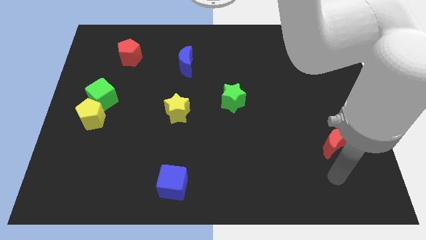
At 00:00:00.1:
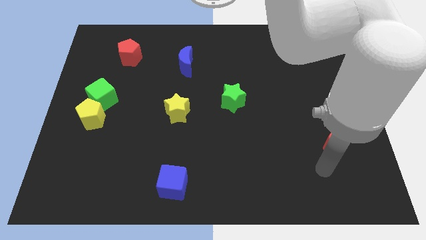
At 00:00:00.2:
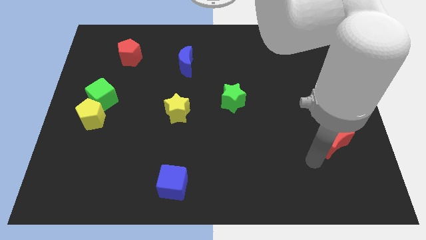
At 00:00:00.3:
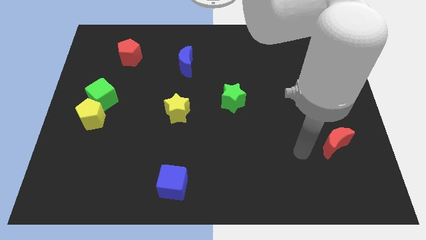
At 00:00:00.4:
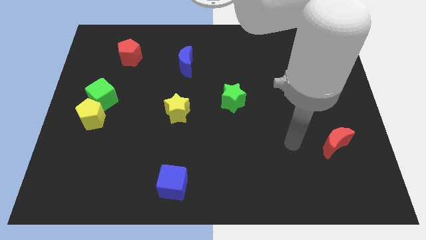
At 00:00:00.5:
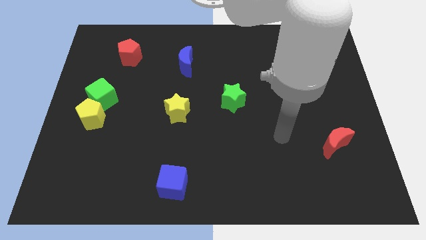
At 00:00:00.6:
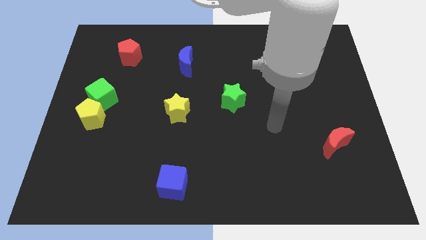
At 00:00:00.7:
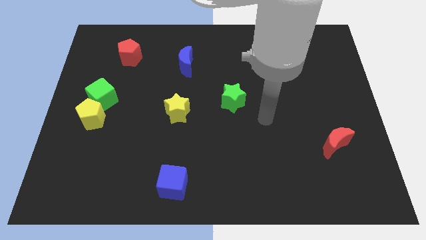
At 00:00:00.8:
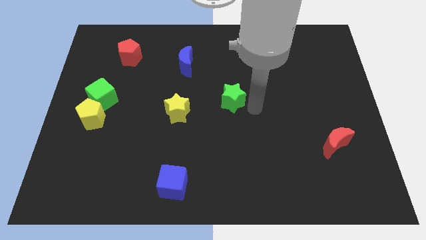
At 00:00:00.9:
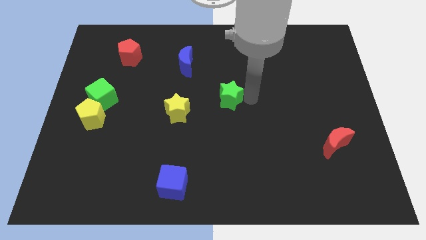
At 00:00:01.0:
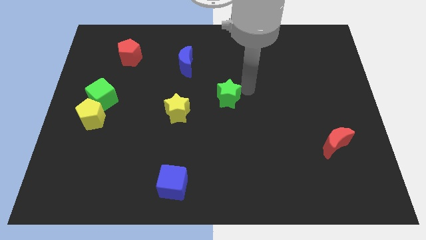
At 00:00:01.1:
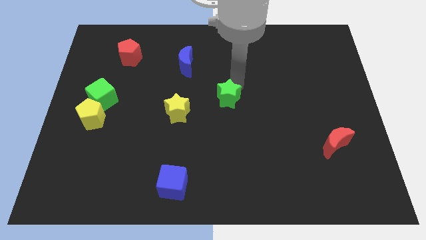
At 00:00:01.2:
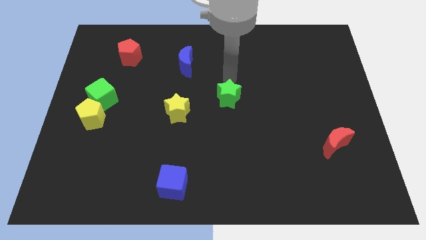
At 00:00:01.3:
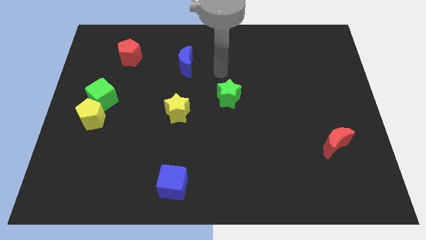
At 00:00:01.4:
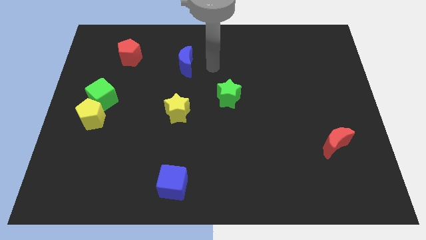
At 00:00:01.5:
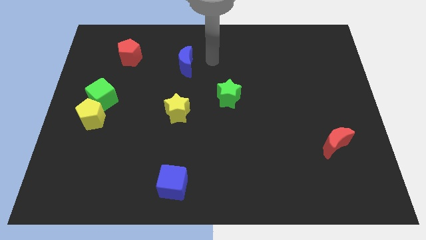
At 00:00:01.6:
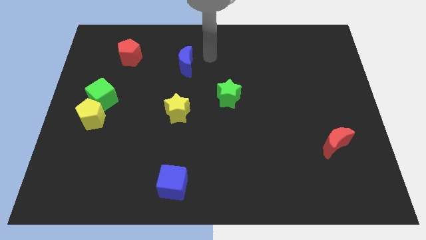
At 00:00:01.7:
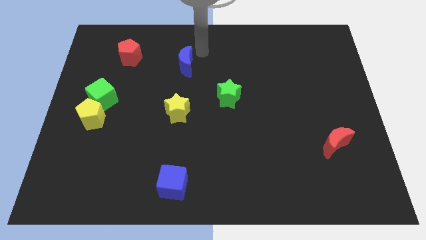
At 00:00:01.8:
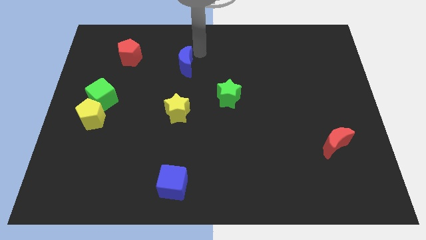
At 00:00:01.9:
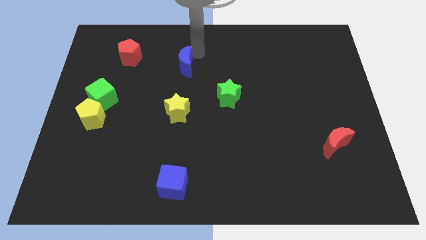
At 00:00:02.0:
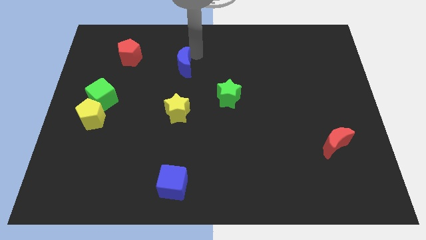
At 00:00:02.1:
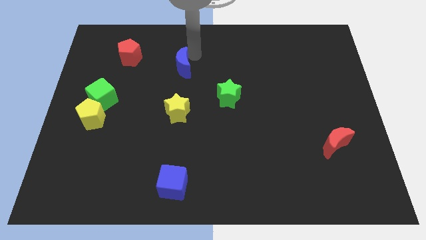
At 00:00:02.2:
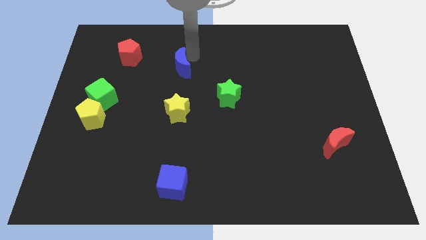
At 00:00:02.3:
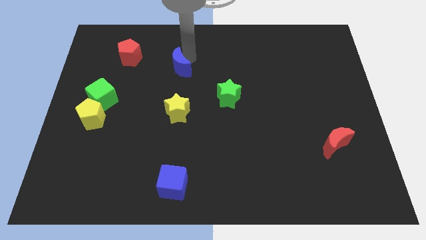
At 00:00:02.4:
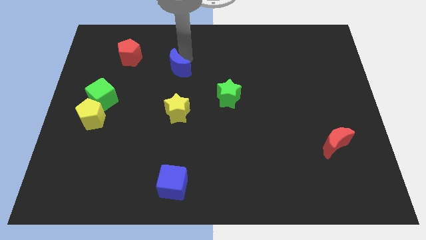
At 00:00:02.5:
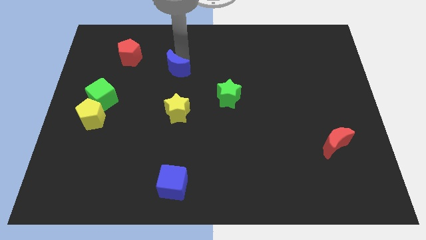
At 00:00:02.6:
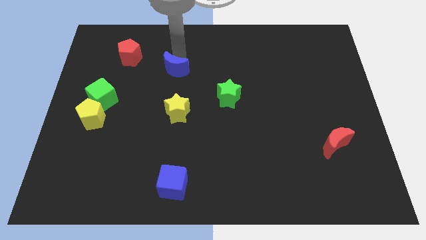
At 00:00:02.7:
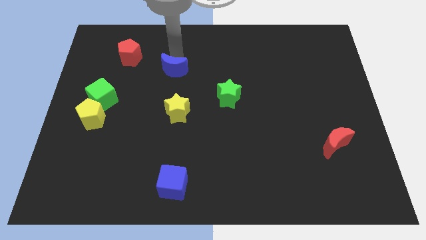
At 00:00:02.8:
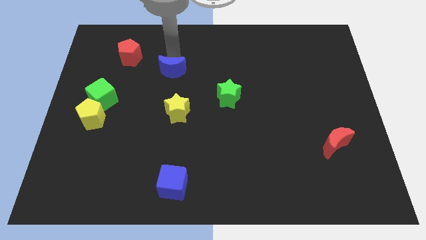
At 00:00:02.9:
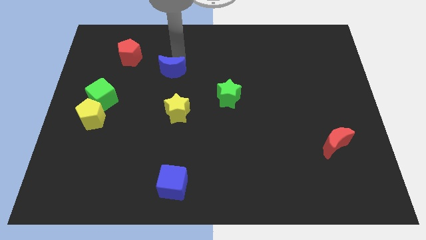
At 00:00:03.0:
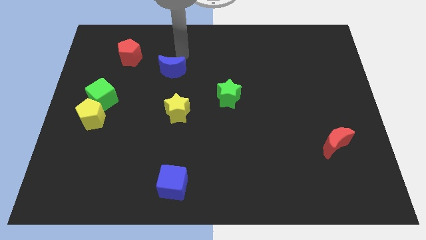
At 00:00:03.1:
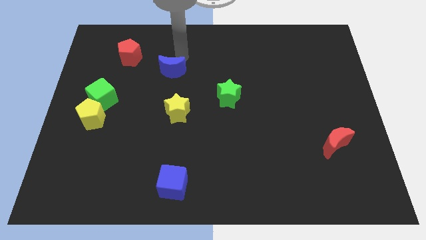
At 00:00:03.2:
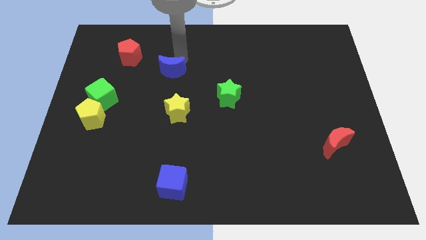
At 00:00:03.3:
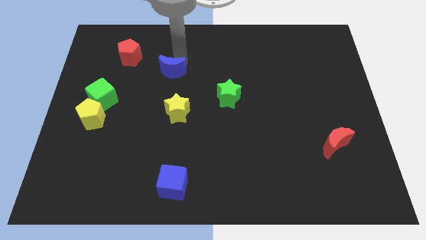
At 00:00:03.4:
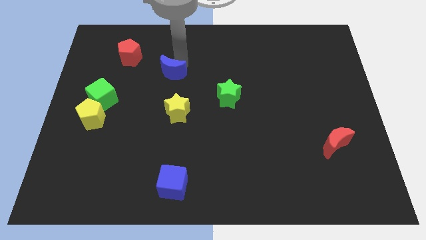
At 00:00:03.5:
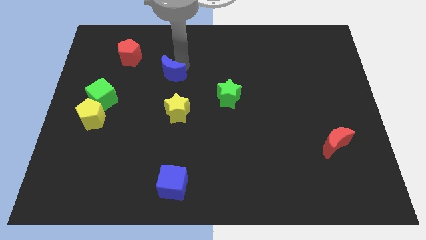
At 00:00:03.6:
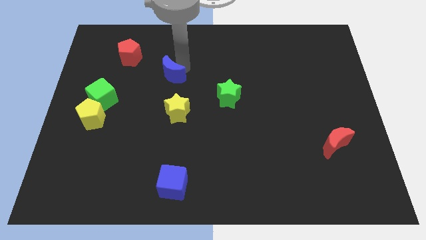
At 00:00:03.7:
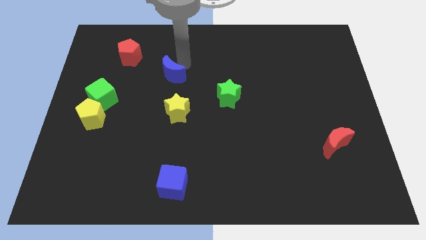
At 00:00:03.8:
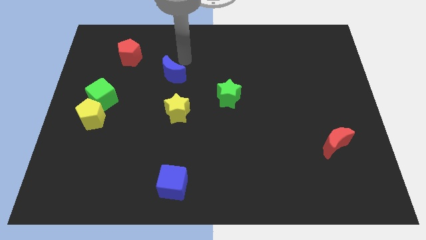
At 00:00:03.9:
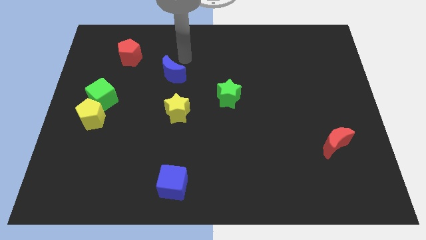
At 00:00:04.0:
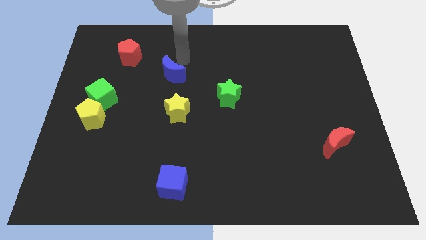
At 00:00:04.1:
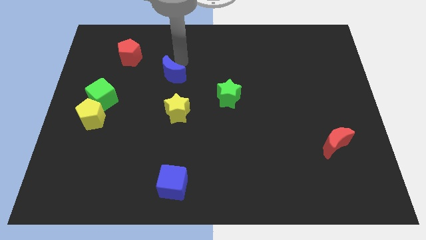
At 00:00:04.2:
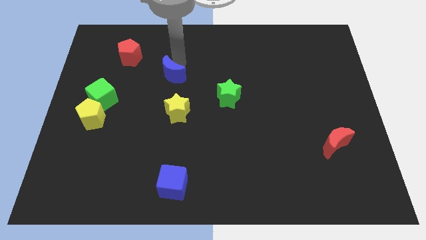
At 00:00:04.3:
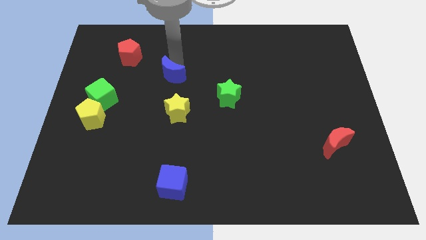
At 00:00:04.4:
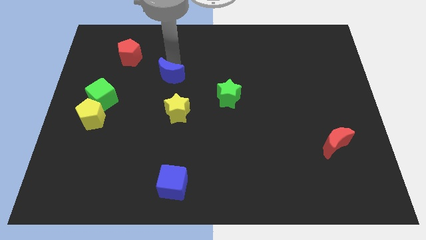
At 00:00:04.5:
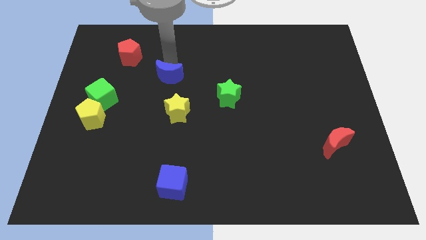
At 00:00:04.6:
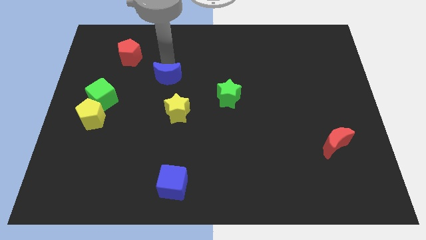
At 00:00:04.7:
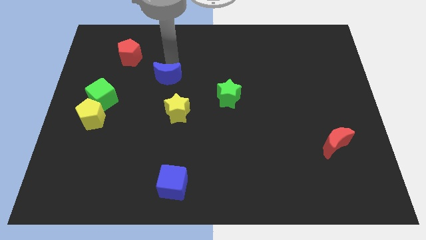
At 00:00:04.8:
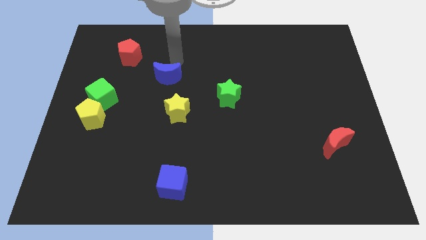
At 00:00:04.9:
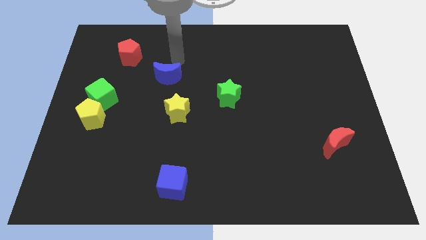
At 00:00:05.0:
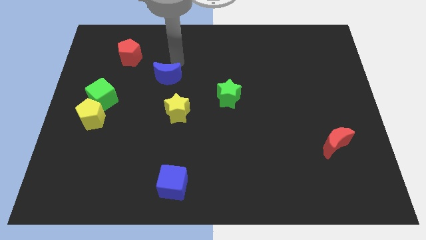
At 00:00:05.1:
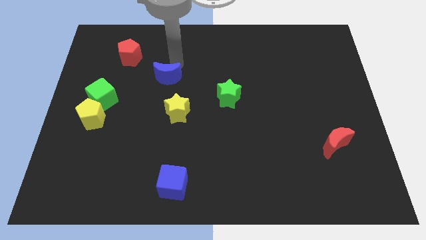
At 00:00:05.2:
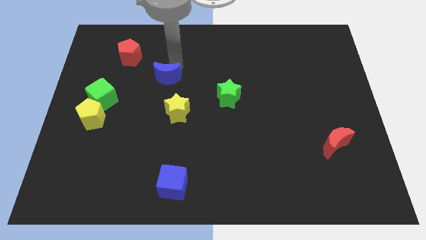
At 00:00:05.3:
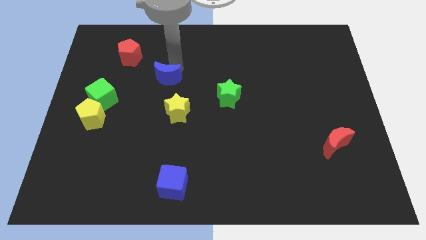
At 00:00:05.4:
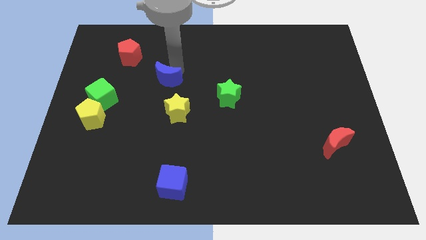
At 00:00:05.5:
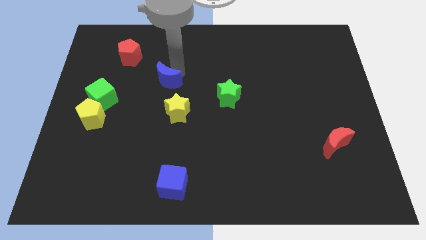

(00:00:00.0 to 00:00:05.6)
put the blue moon to the top left side of the yellow star

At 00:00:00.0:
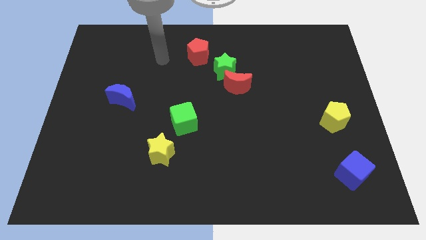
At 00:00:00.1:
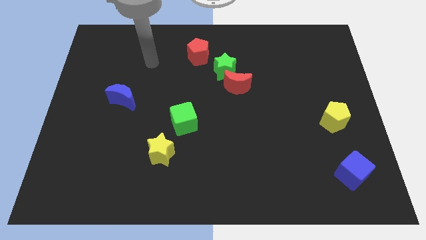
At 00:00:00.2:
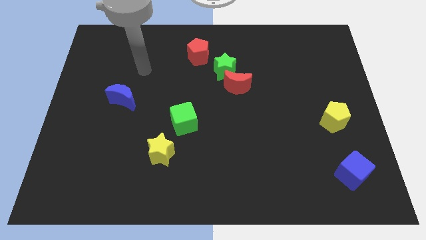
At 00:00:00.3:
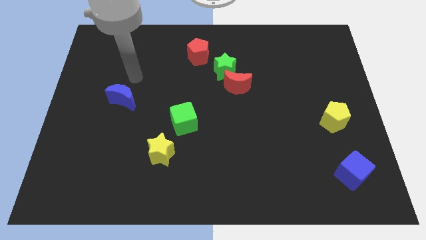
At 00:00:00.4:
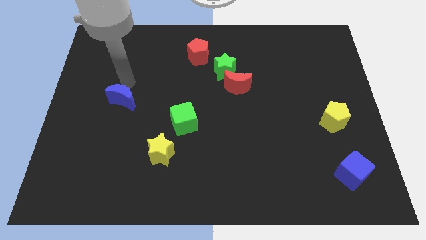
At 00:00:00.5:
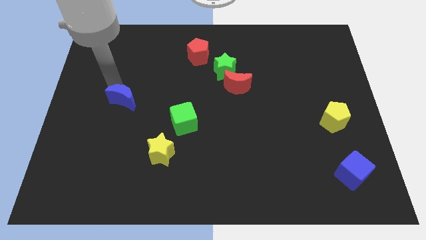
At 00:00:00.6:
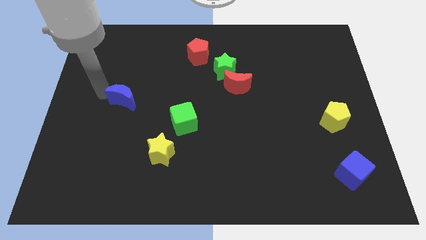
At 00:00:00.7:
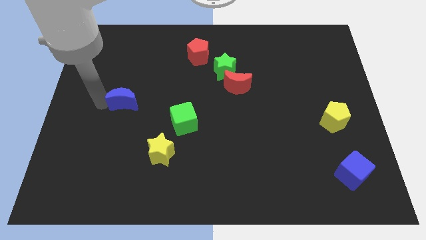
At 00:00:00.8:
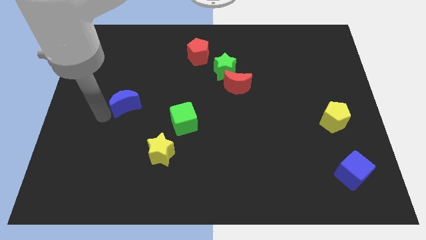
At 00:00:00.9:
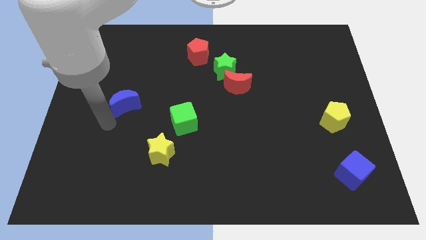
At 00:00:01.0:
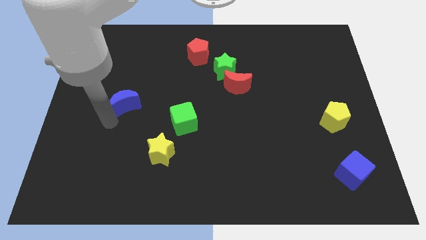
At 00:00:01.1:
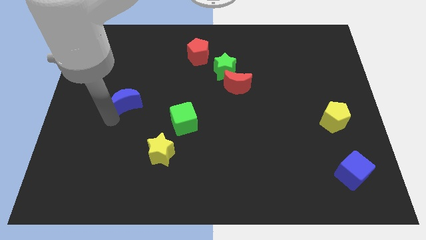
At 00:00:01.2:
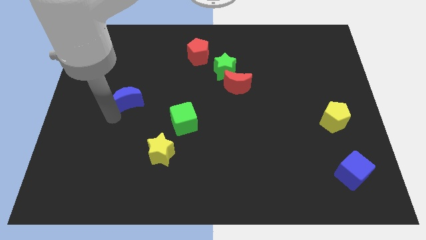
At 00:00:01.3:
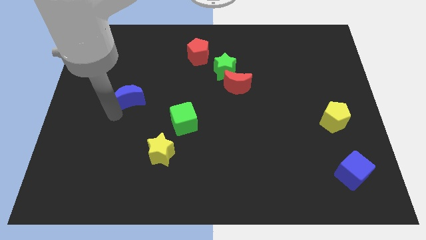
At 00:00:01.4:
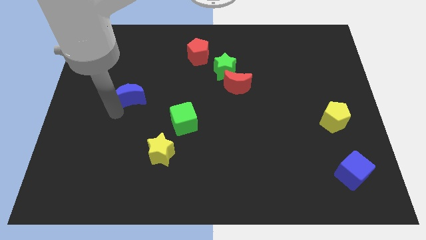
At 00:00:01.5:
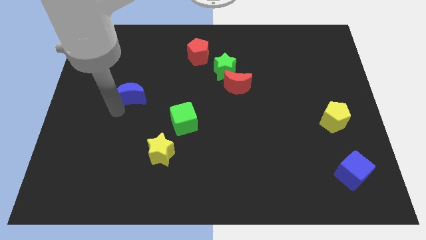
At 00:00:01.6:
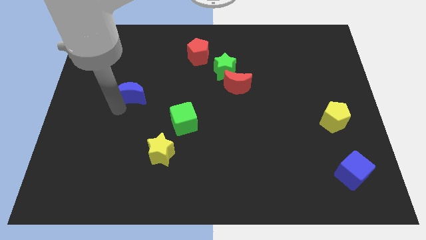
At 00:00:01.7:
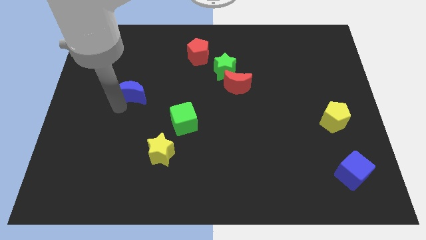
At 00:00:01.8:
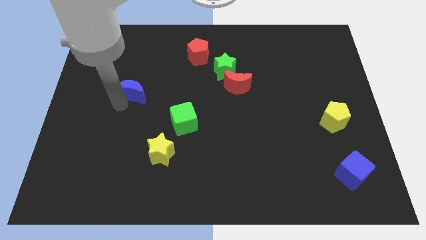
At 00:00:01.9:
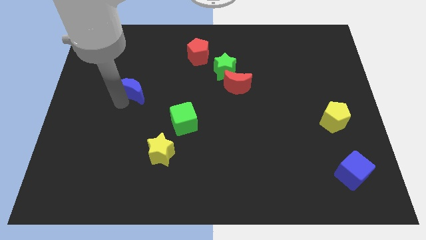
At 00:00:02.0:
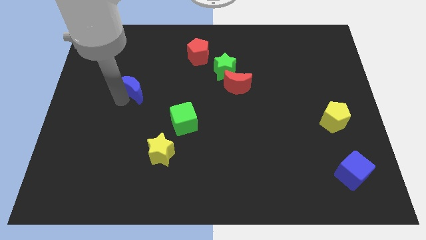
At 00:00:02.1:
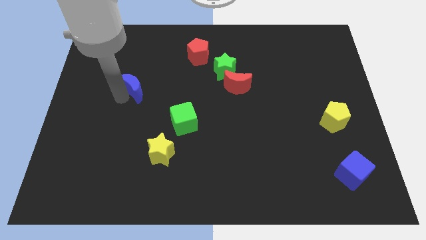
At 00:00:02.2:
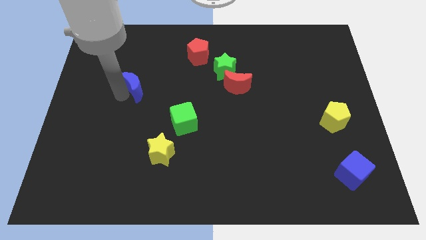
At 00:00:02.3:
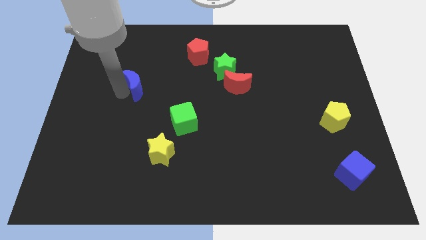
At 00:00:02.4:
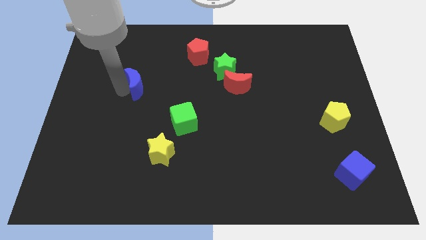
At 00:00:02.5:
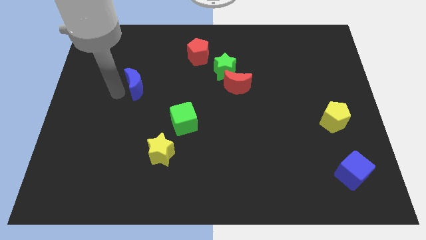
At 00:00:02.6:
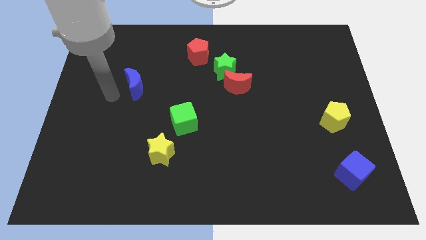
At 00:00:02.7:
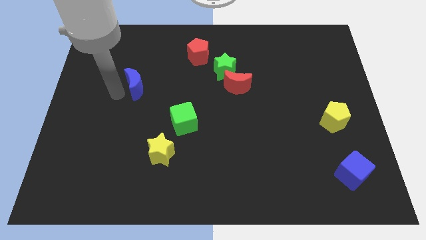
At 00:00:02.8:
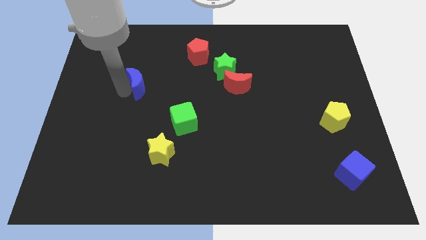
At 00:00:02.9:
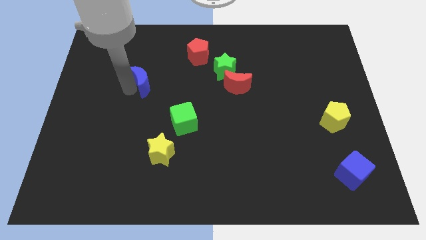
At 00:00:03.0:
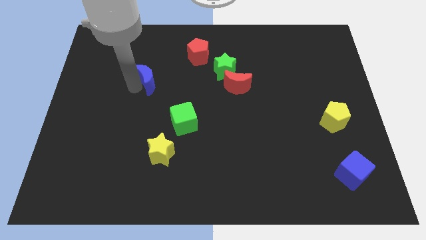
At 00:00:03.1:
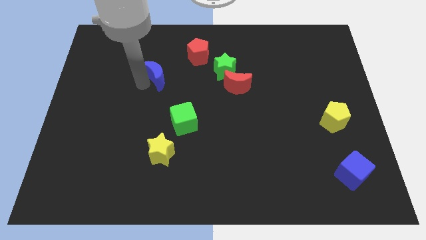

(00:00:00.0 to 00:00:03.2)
slide the blue moon to the bottom left of the red pentagon
